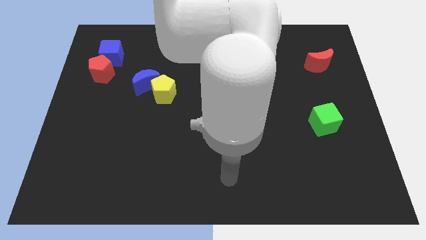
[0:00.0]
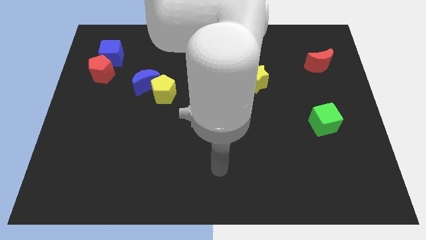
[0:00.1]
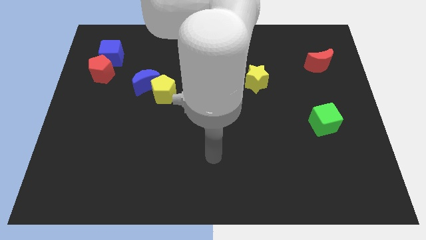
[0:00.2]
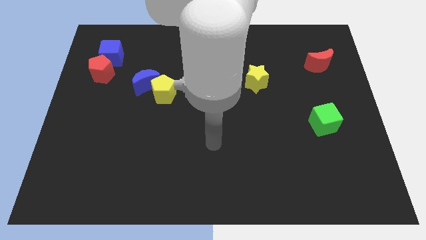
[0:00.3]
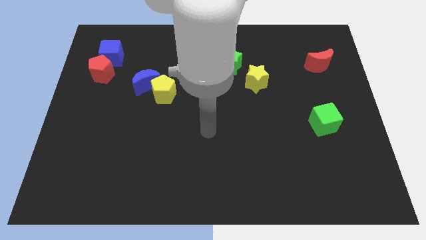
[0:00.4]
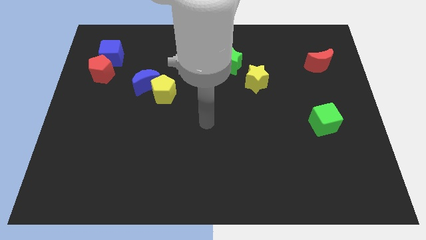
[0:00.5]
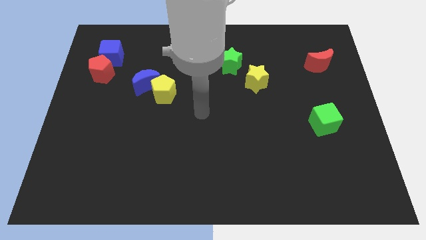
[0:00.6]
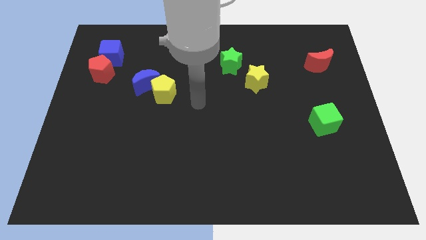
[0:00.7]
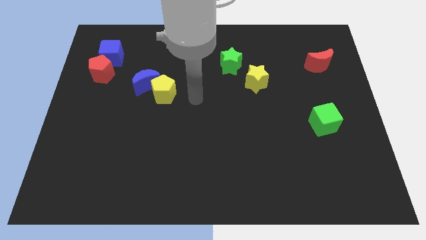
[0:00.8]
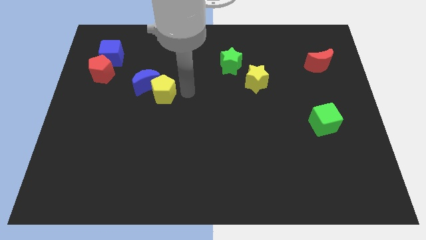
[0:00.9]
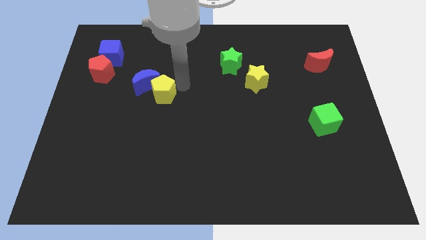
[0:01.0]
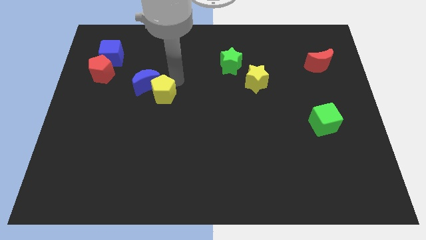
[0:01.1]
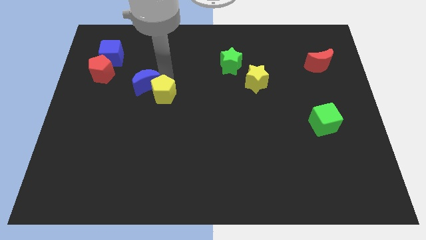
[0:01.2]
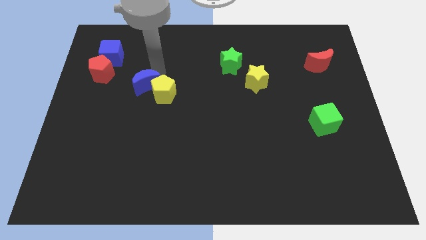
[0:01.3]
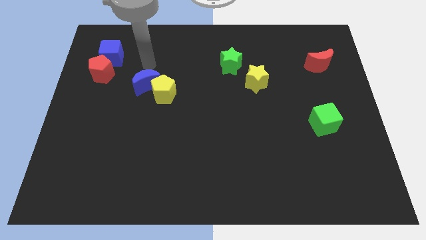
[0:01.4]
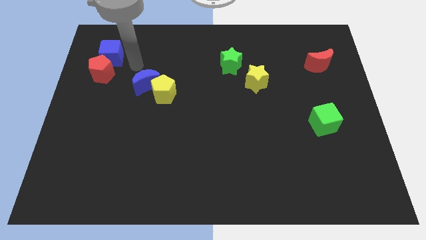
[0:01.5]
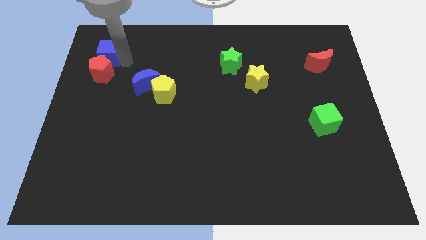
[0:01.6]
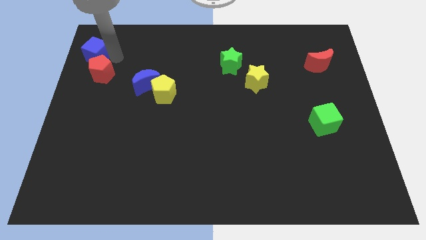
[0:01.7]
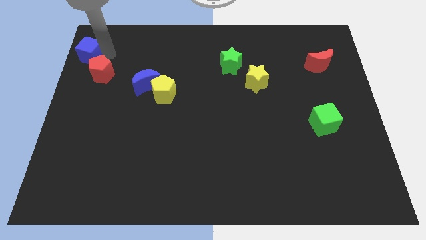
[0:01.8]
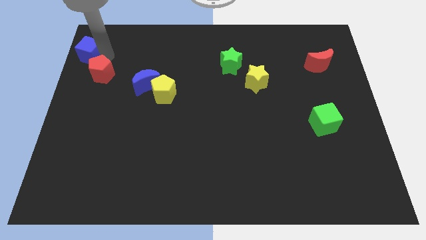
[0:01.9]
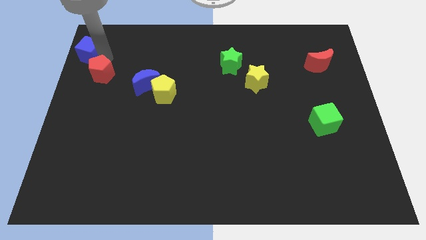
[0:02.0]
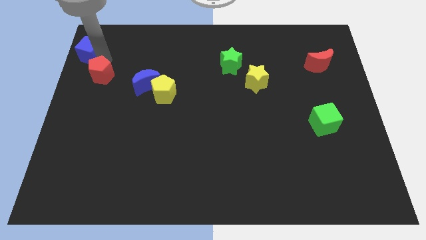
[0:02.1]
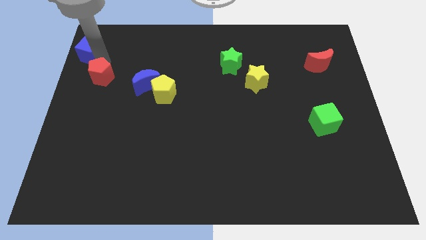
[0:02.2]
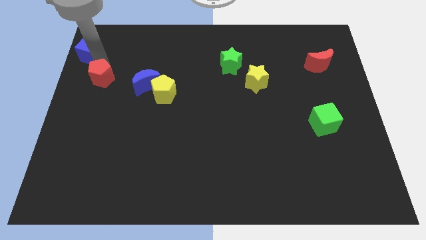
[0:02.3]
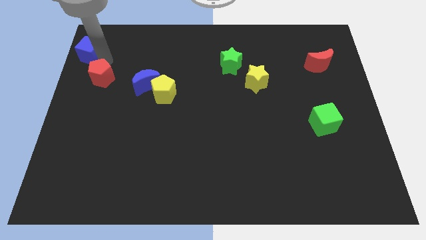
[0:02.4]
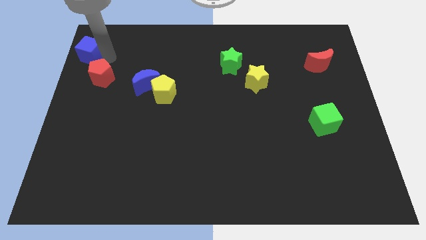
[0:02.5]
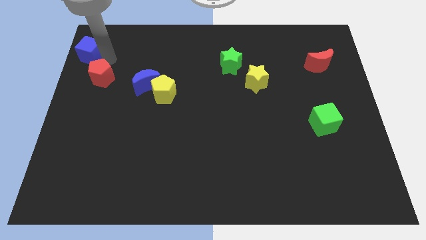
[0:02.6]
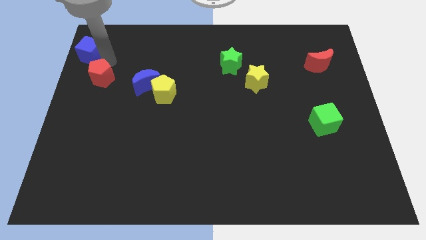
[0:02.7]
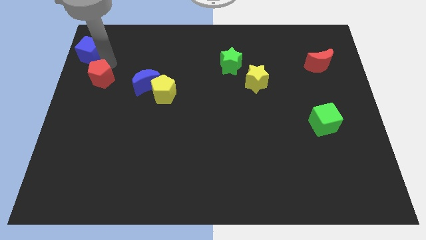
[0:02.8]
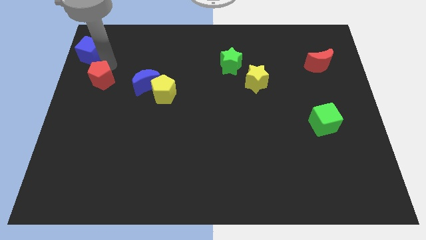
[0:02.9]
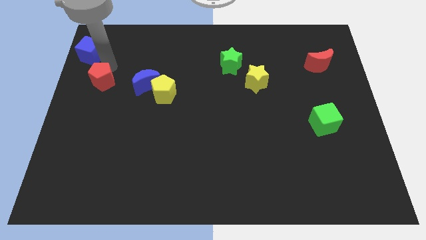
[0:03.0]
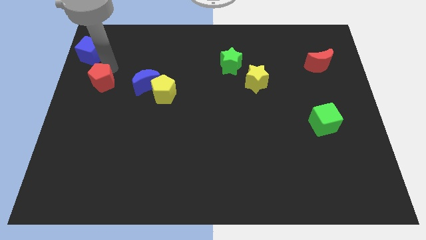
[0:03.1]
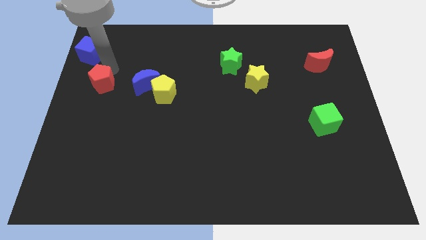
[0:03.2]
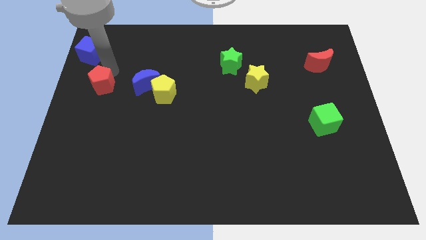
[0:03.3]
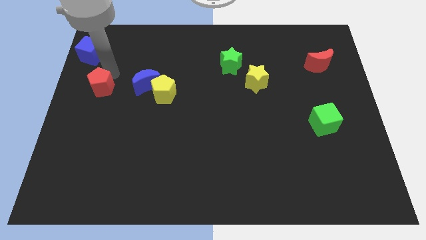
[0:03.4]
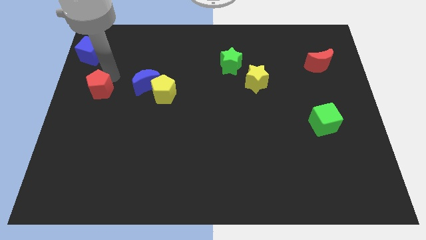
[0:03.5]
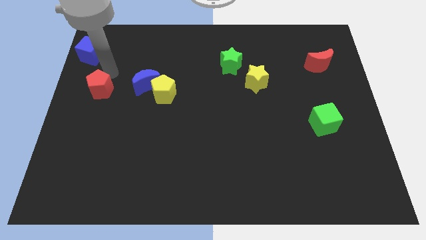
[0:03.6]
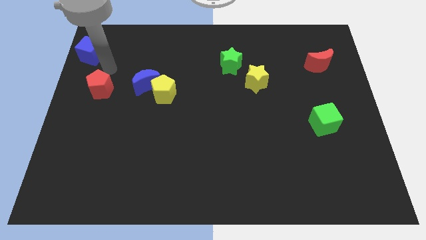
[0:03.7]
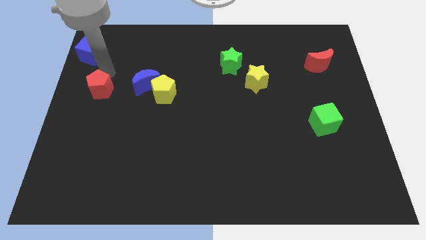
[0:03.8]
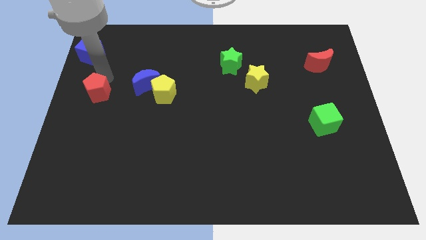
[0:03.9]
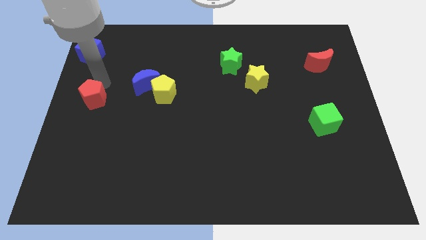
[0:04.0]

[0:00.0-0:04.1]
push the red pentagon a bit downwards

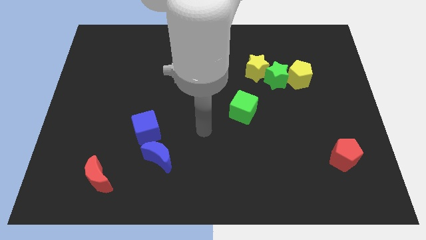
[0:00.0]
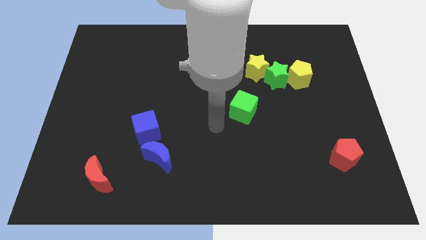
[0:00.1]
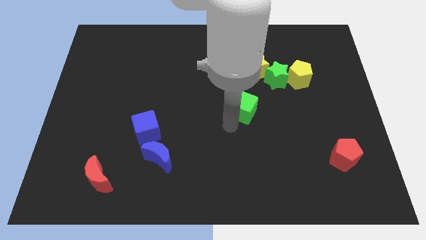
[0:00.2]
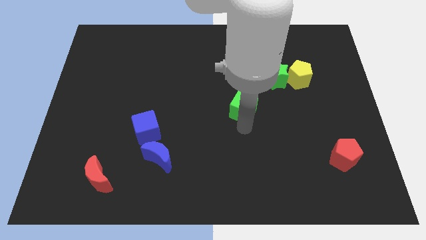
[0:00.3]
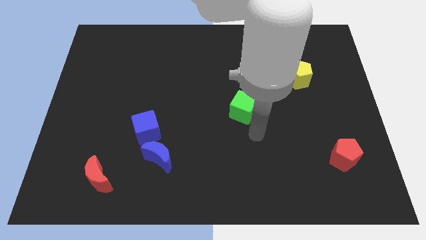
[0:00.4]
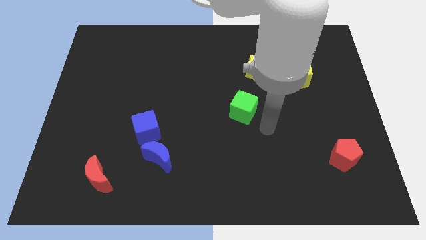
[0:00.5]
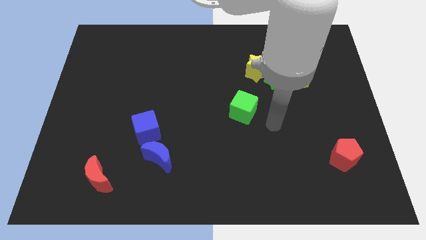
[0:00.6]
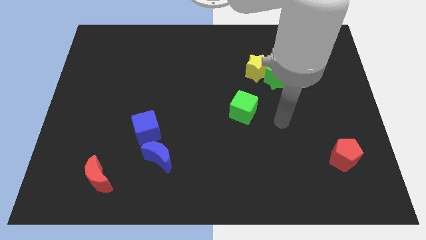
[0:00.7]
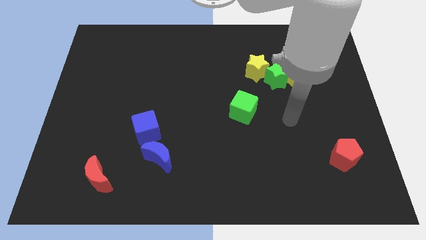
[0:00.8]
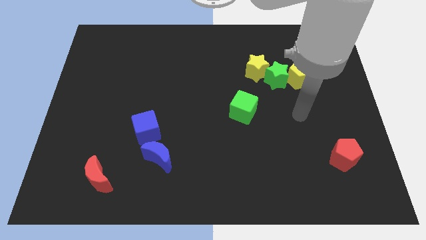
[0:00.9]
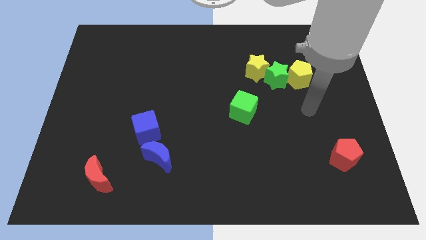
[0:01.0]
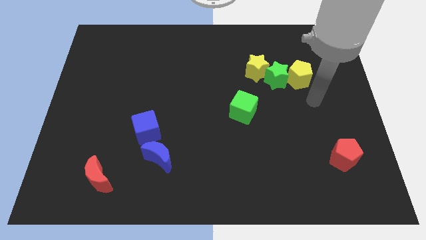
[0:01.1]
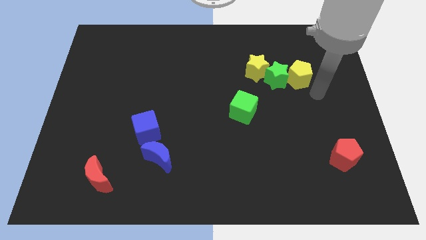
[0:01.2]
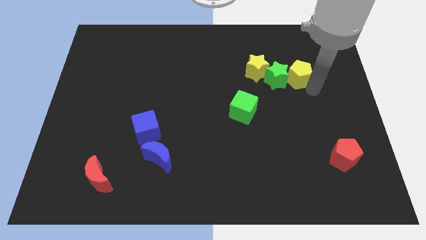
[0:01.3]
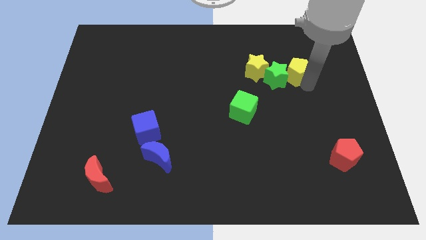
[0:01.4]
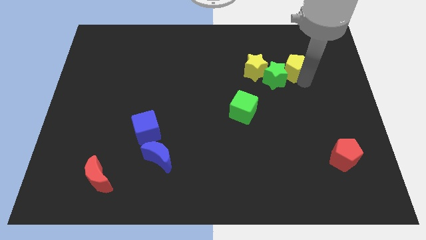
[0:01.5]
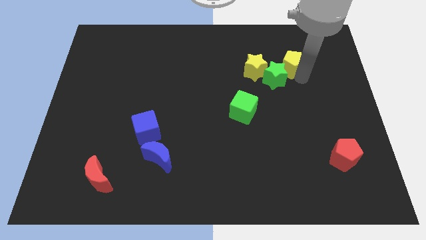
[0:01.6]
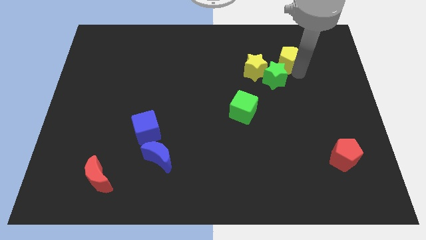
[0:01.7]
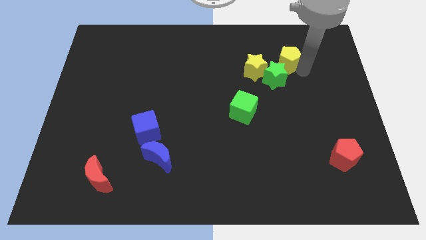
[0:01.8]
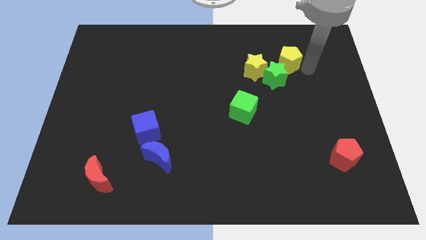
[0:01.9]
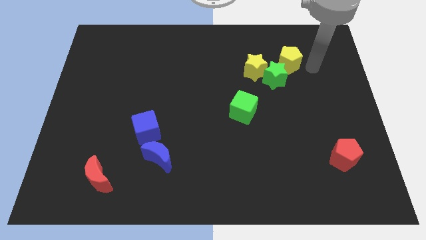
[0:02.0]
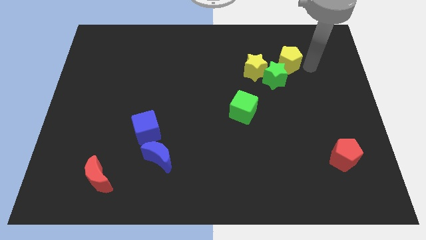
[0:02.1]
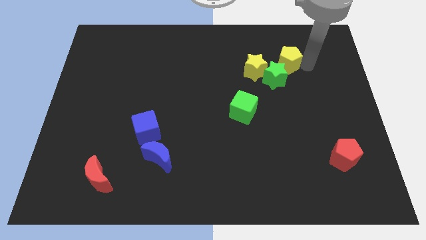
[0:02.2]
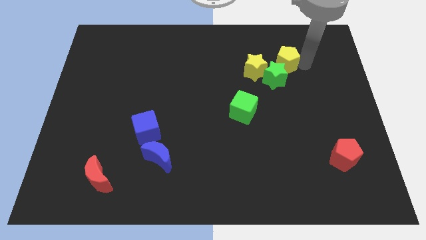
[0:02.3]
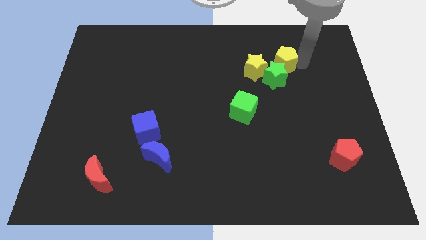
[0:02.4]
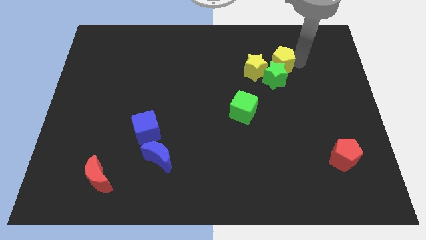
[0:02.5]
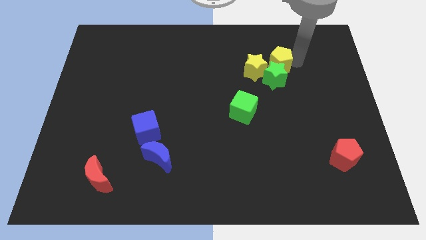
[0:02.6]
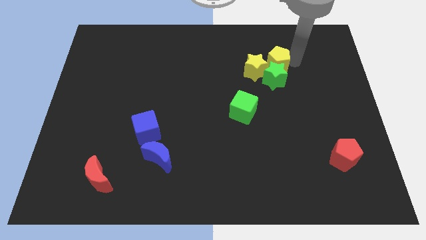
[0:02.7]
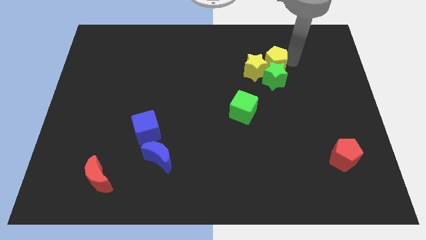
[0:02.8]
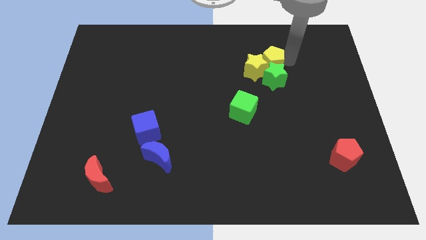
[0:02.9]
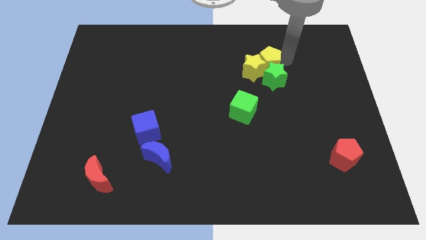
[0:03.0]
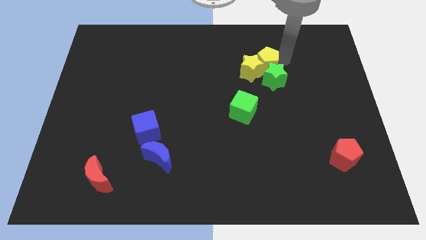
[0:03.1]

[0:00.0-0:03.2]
slide the yellow pentagon a little bit left

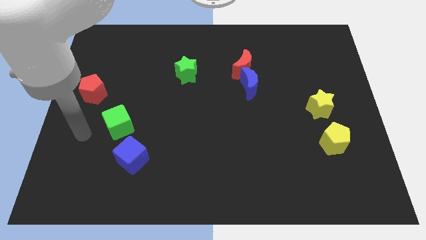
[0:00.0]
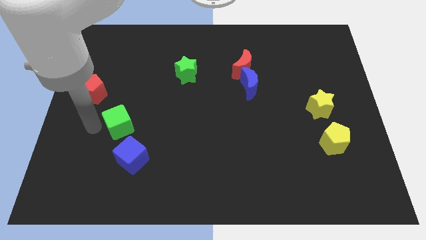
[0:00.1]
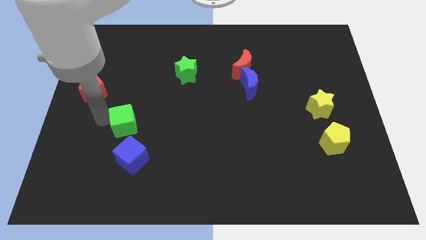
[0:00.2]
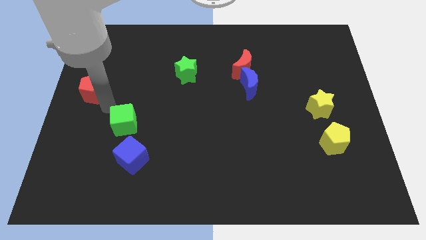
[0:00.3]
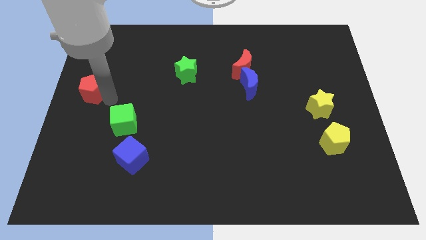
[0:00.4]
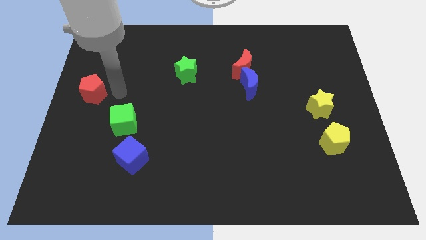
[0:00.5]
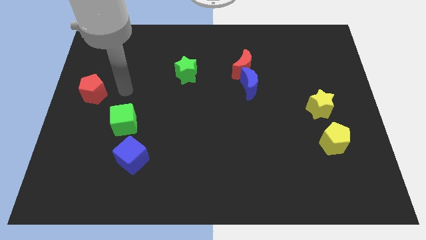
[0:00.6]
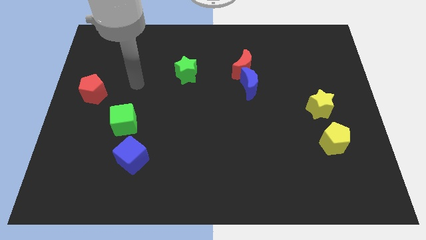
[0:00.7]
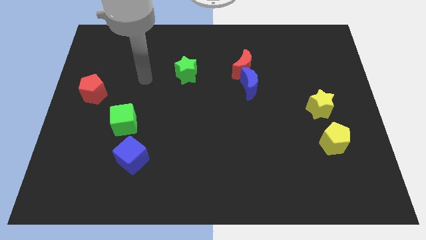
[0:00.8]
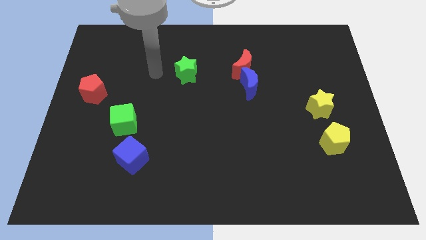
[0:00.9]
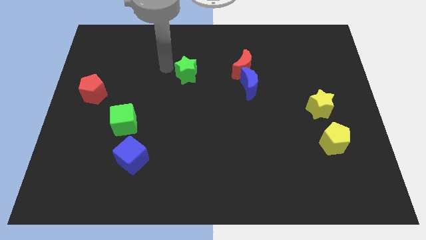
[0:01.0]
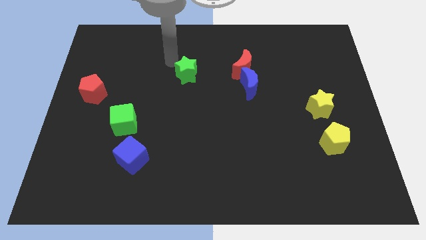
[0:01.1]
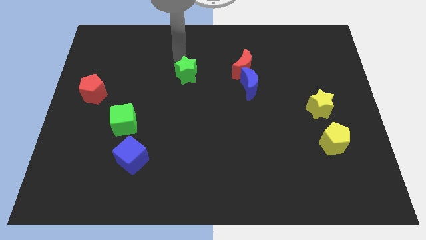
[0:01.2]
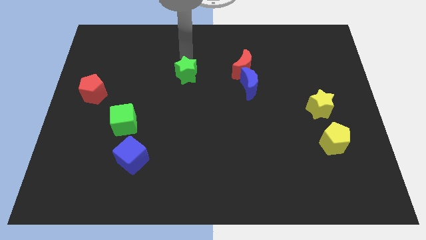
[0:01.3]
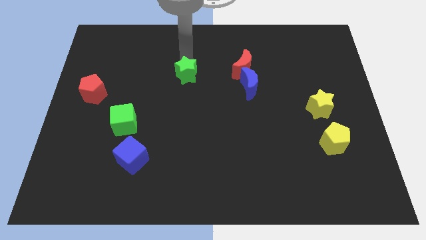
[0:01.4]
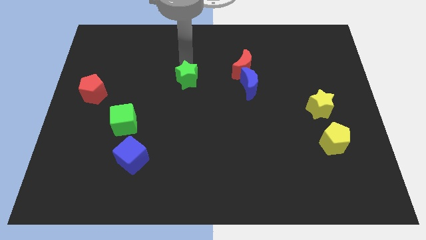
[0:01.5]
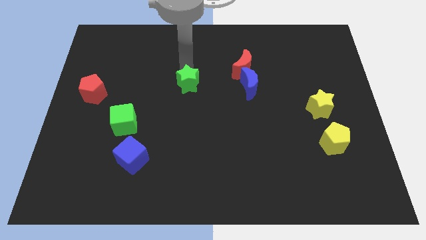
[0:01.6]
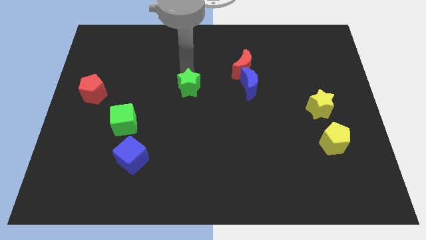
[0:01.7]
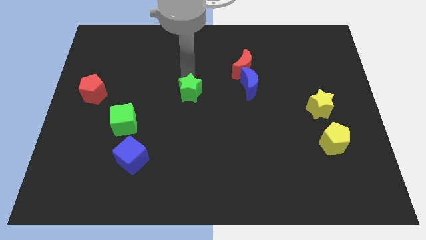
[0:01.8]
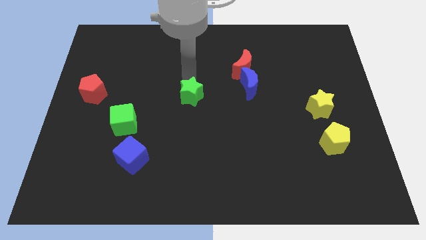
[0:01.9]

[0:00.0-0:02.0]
slide the green star somewhat down
